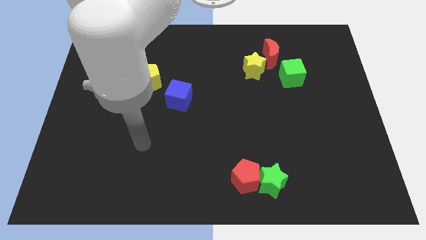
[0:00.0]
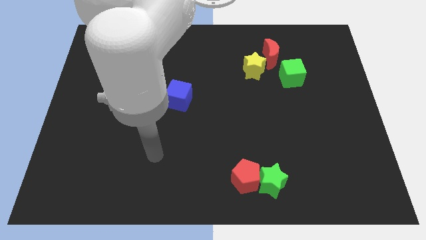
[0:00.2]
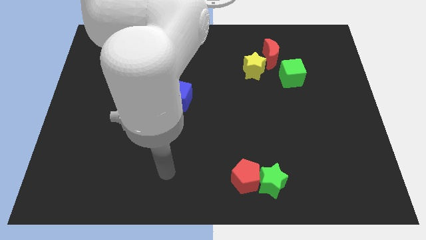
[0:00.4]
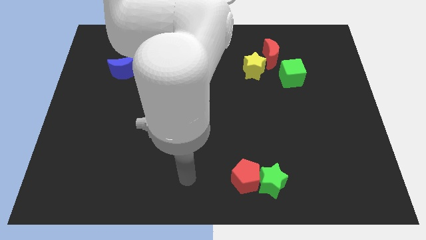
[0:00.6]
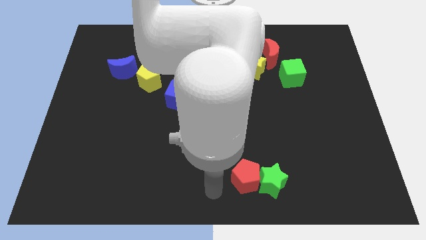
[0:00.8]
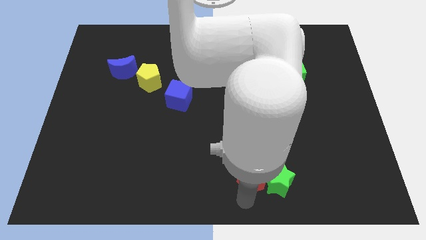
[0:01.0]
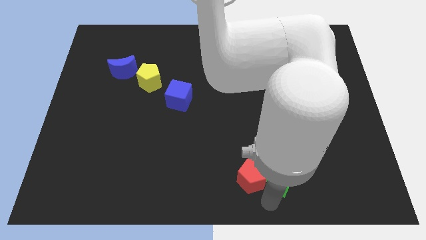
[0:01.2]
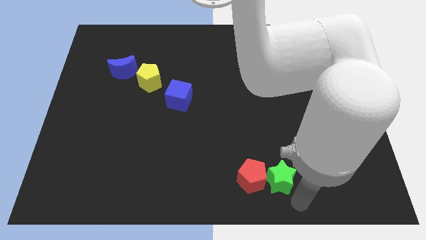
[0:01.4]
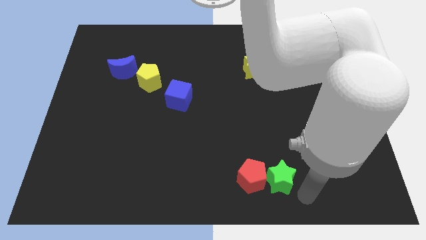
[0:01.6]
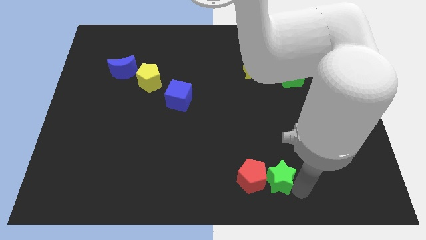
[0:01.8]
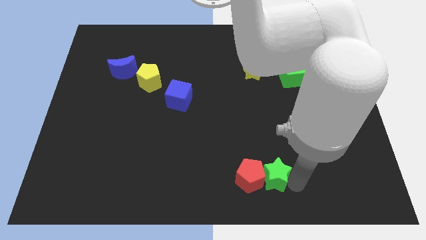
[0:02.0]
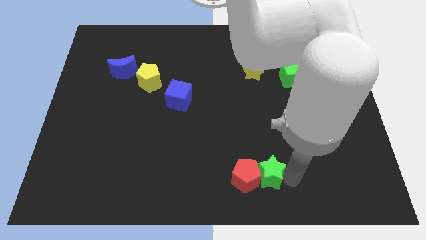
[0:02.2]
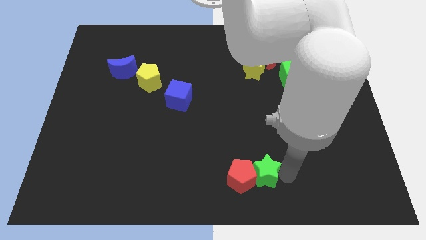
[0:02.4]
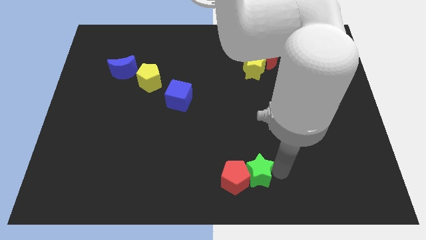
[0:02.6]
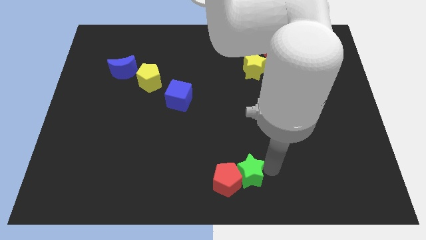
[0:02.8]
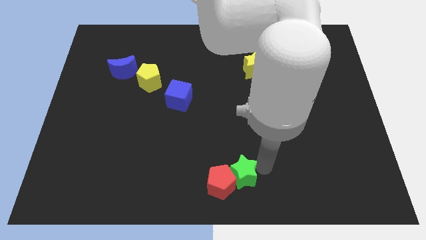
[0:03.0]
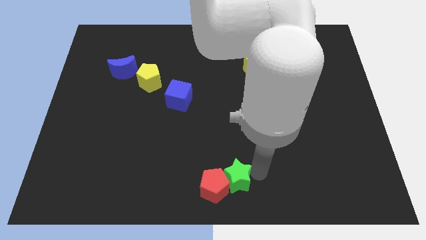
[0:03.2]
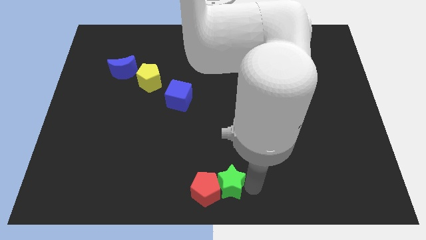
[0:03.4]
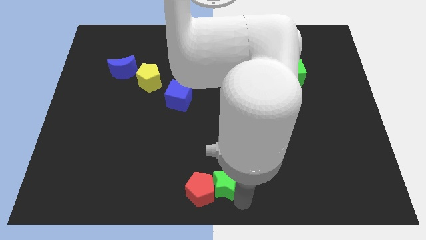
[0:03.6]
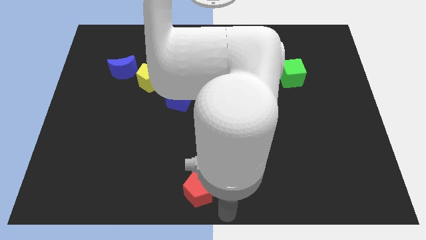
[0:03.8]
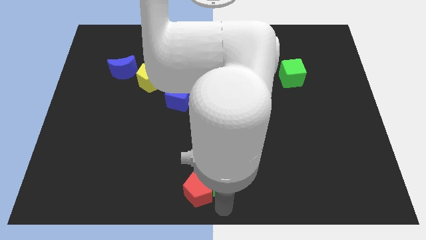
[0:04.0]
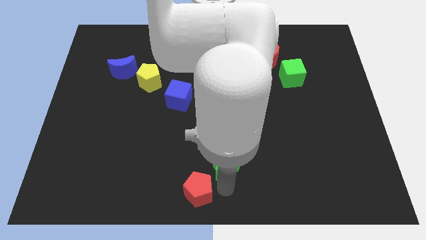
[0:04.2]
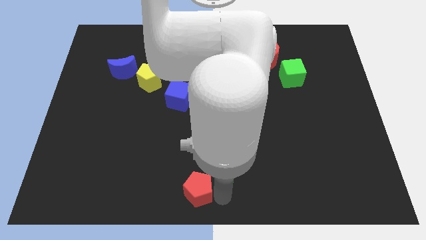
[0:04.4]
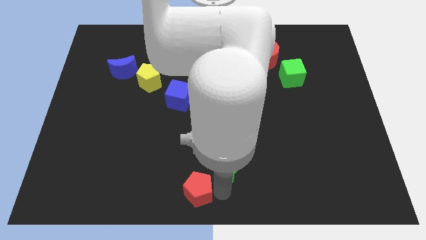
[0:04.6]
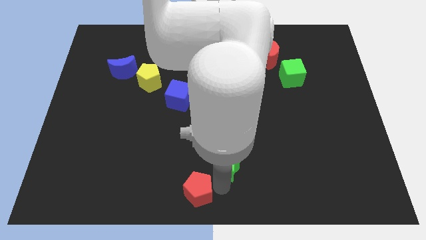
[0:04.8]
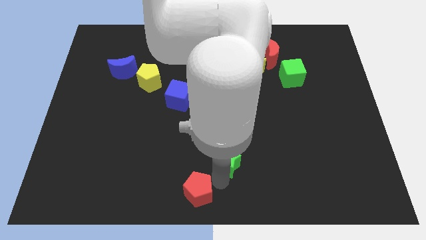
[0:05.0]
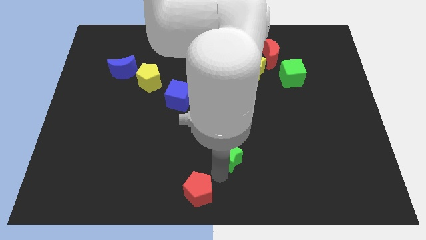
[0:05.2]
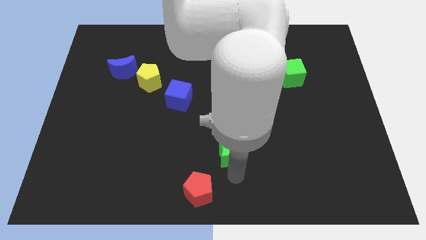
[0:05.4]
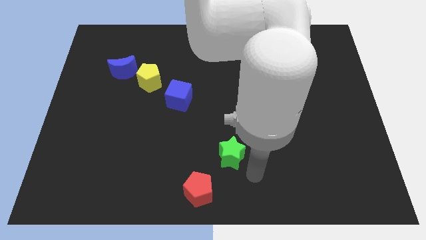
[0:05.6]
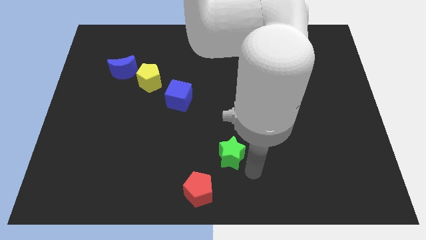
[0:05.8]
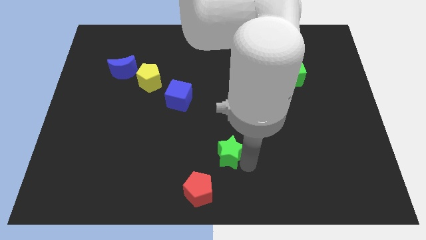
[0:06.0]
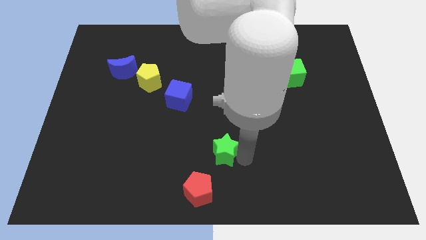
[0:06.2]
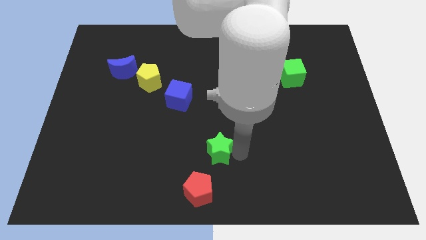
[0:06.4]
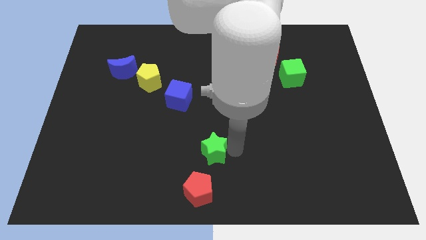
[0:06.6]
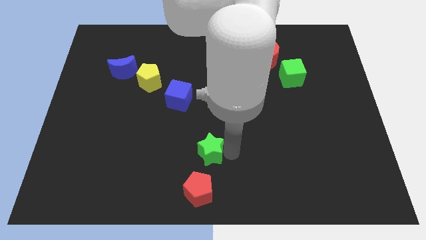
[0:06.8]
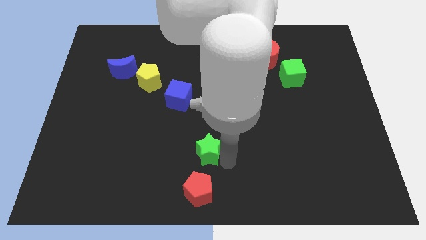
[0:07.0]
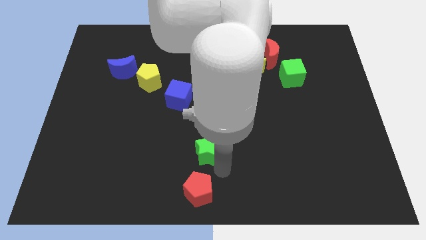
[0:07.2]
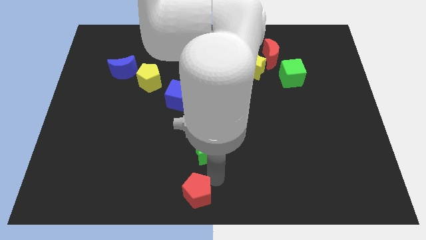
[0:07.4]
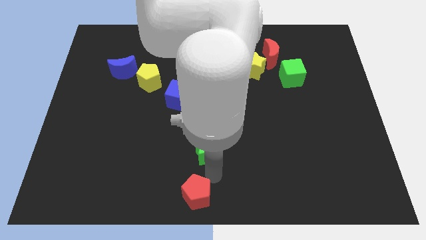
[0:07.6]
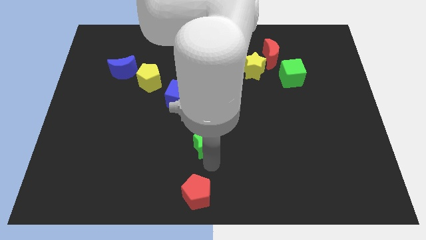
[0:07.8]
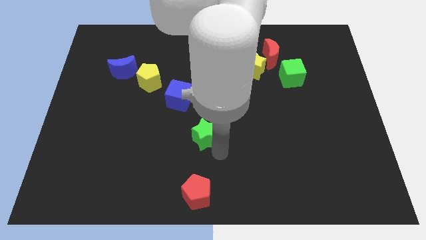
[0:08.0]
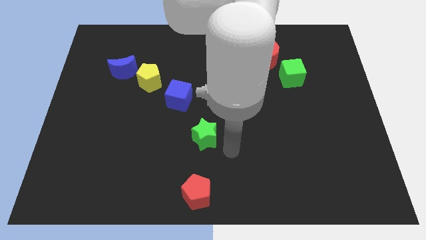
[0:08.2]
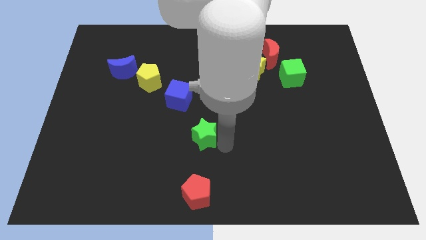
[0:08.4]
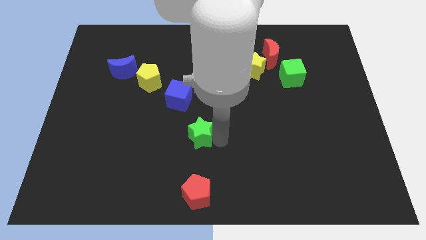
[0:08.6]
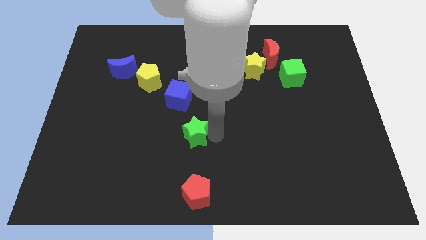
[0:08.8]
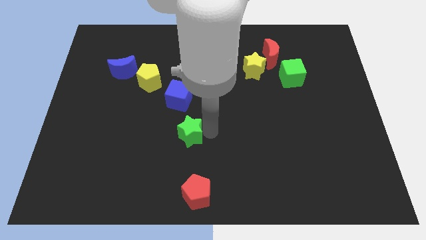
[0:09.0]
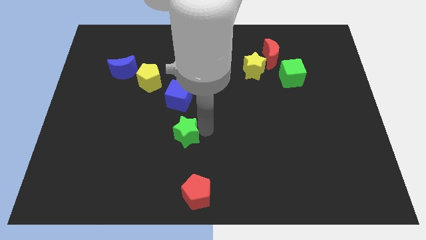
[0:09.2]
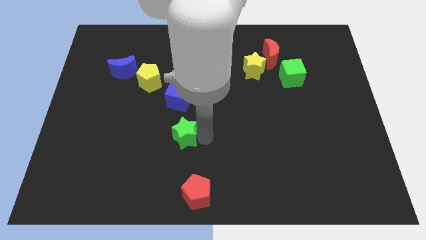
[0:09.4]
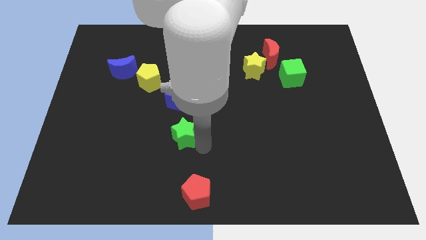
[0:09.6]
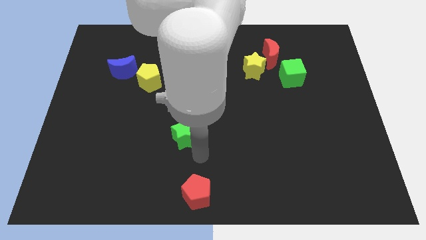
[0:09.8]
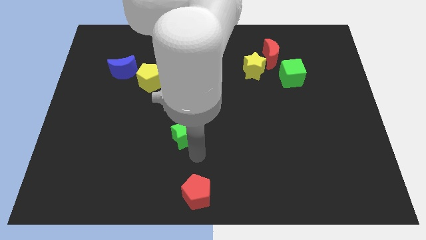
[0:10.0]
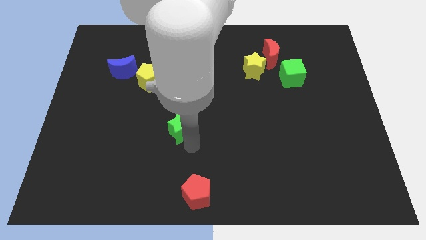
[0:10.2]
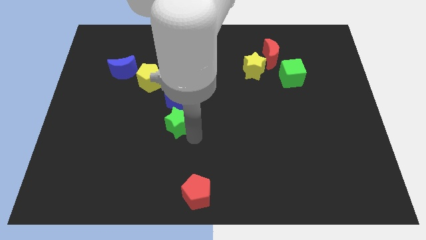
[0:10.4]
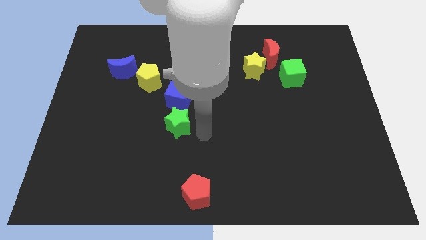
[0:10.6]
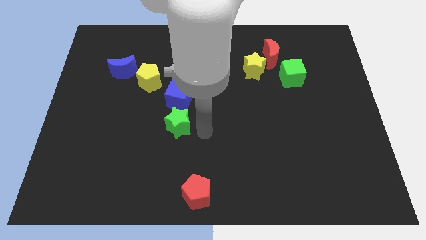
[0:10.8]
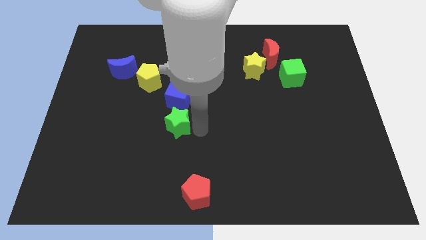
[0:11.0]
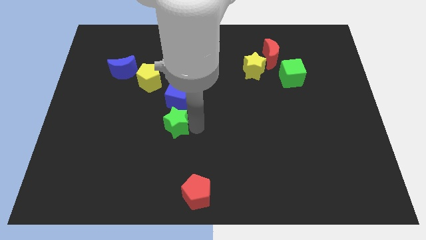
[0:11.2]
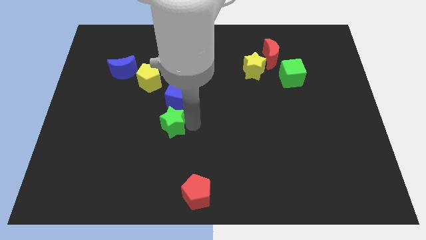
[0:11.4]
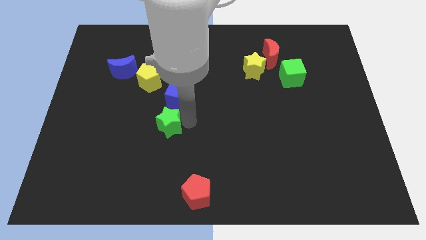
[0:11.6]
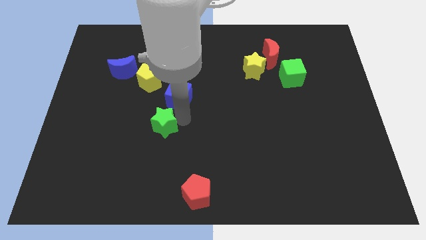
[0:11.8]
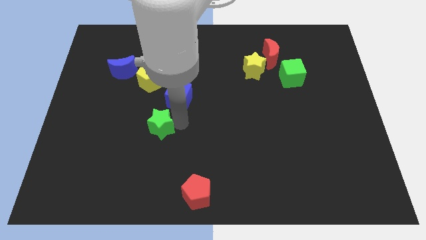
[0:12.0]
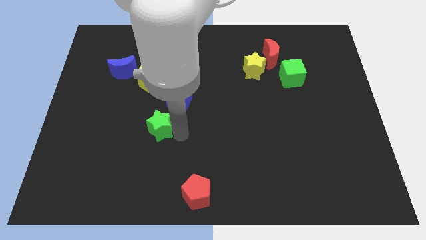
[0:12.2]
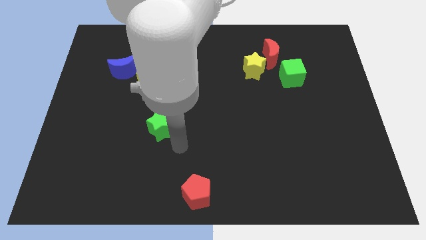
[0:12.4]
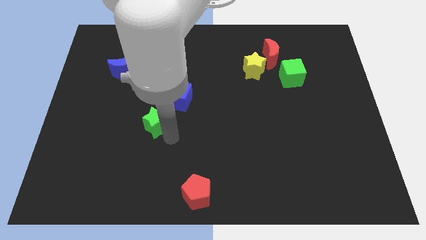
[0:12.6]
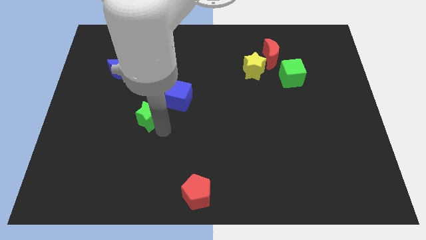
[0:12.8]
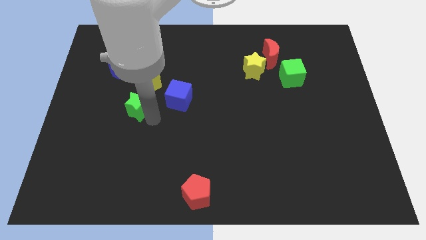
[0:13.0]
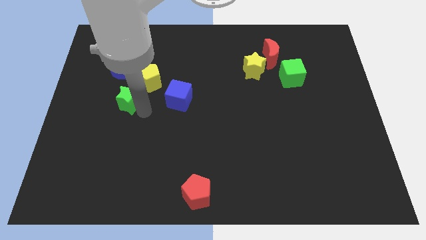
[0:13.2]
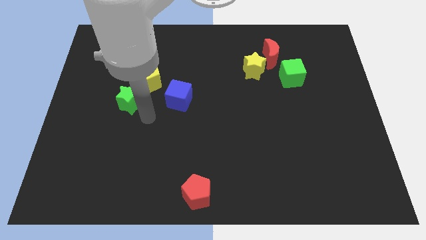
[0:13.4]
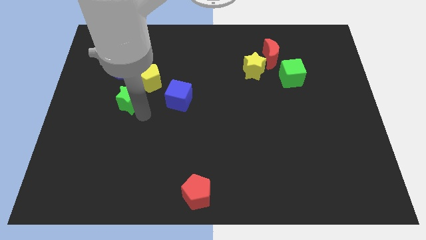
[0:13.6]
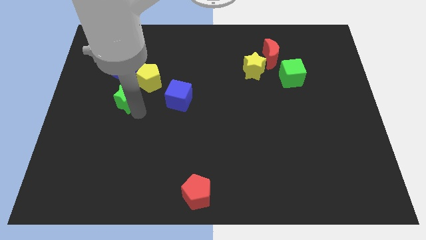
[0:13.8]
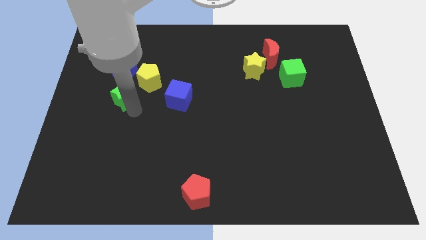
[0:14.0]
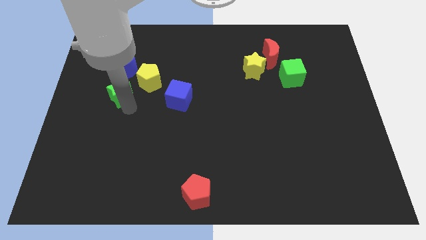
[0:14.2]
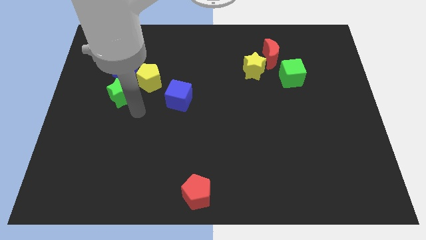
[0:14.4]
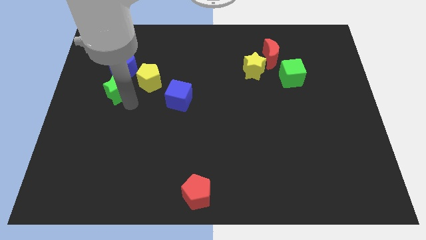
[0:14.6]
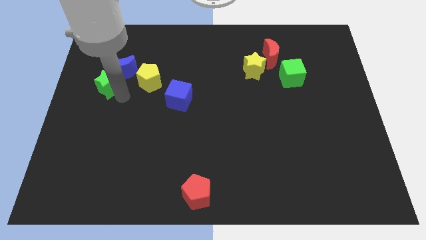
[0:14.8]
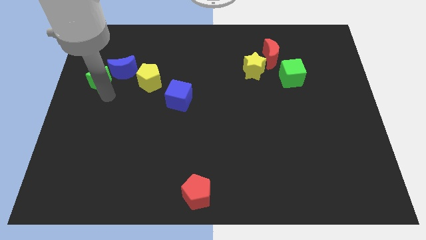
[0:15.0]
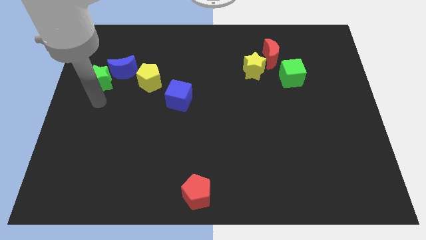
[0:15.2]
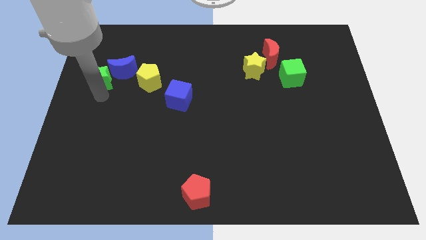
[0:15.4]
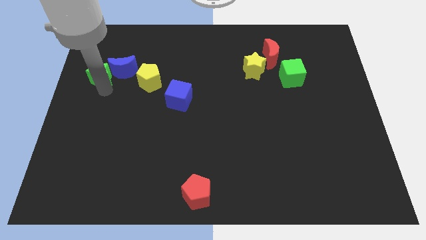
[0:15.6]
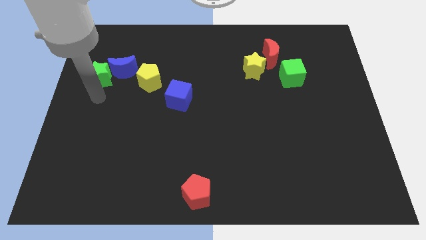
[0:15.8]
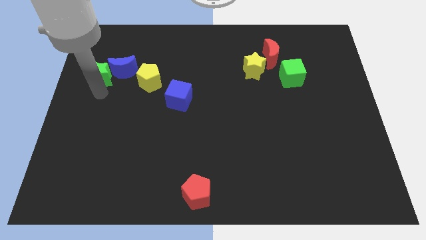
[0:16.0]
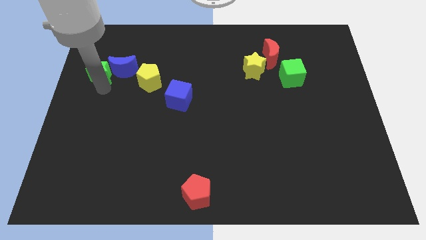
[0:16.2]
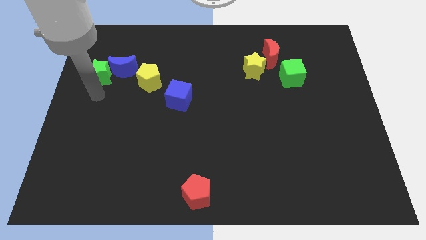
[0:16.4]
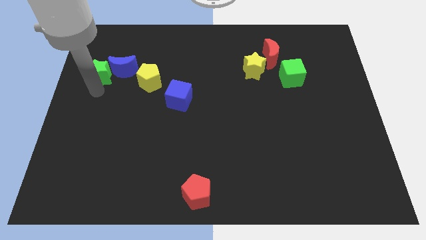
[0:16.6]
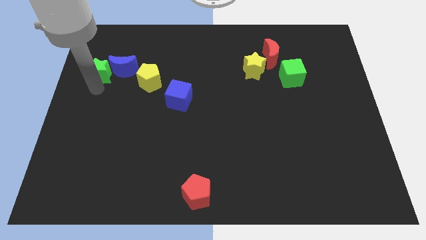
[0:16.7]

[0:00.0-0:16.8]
slide the green star to the top left of the blue moon
